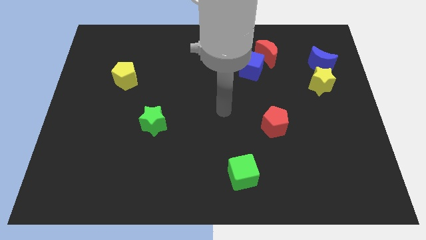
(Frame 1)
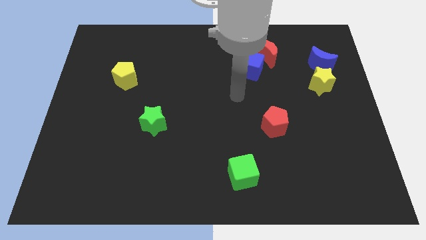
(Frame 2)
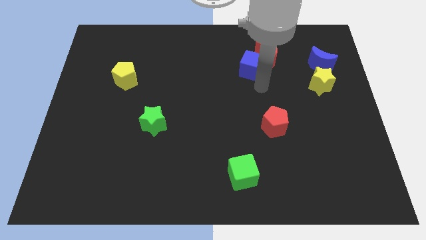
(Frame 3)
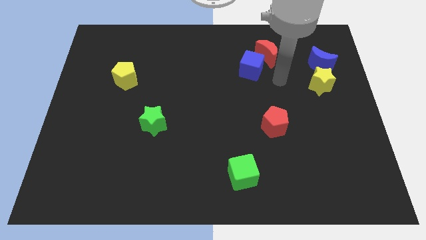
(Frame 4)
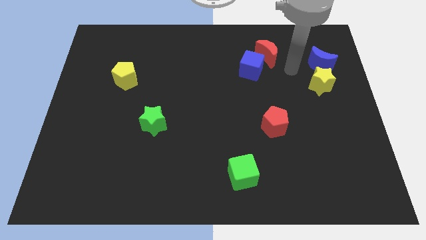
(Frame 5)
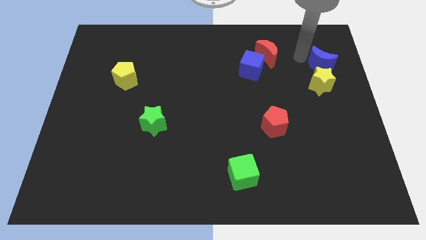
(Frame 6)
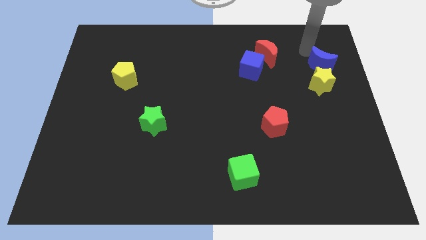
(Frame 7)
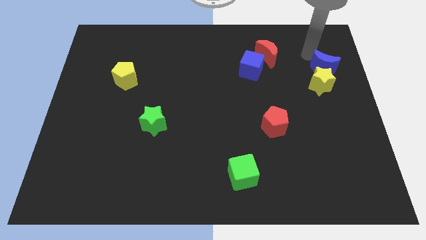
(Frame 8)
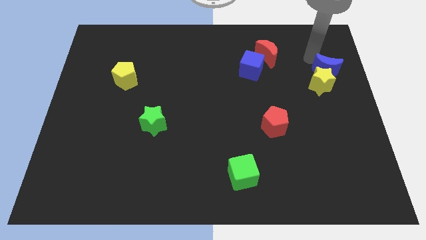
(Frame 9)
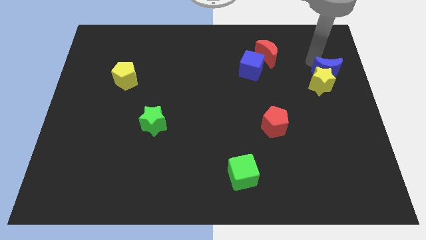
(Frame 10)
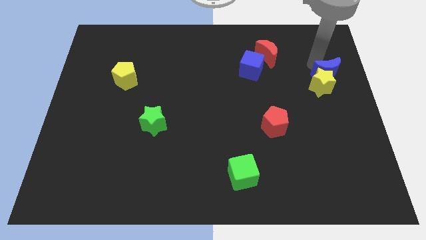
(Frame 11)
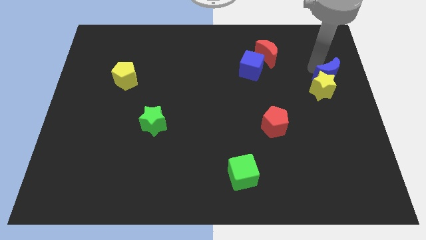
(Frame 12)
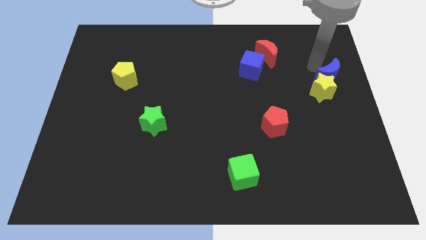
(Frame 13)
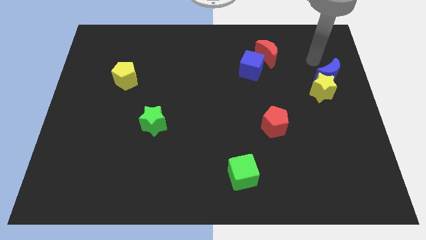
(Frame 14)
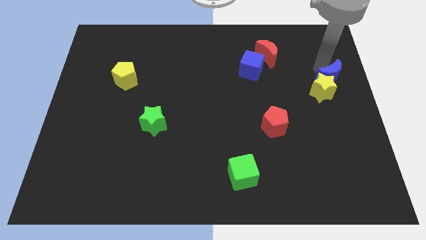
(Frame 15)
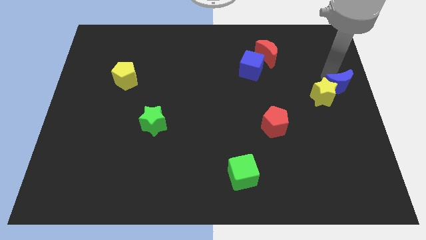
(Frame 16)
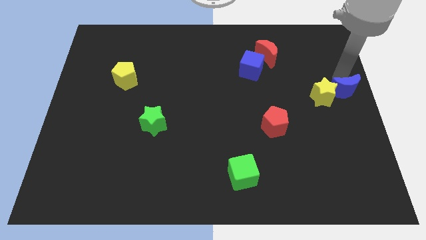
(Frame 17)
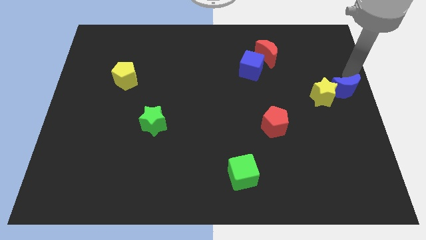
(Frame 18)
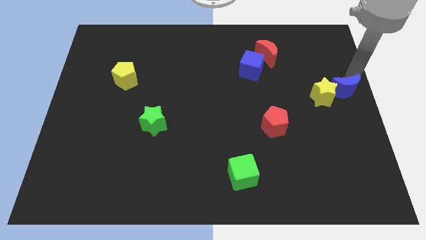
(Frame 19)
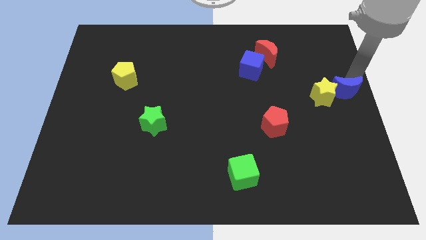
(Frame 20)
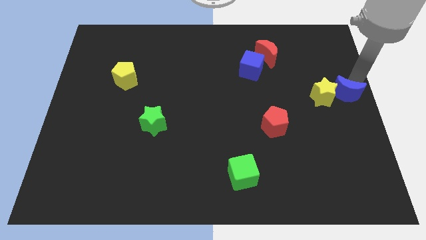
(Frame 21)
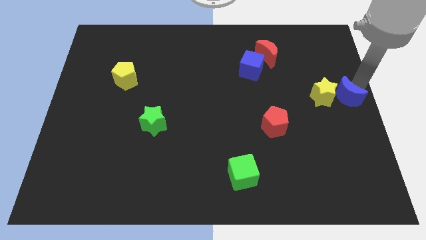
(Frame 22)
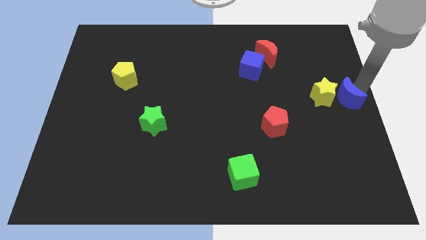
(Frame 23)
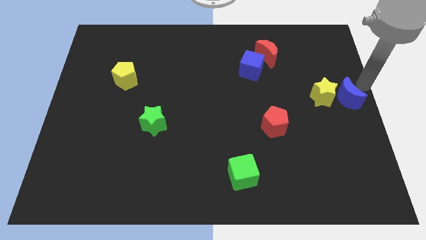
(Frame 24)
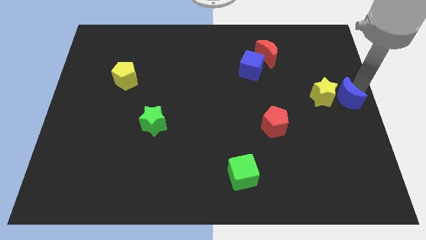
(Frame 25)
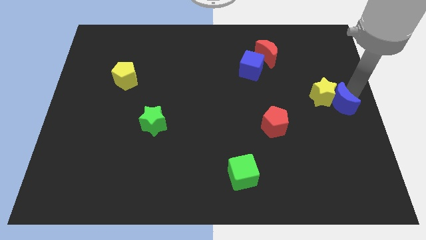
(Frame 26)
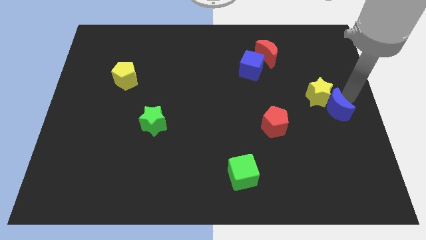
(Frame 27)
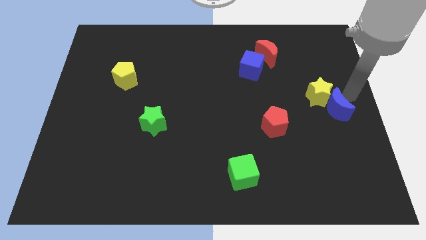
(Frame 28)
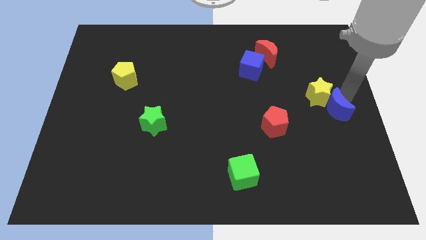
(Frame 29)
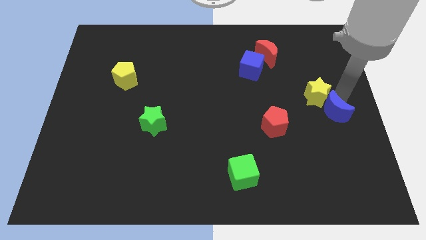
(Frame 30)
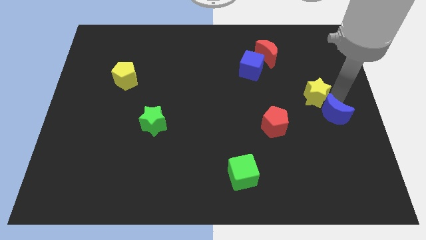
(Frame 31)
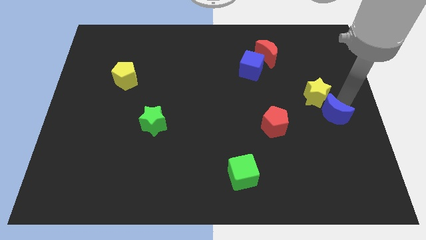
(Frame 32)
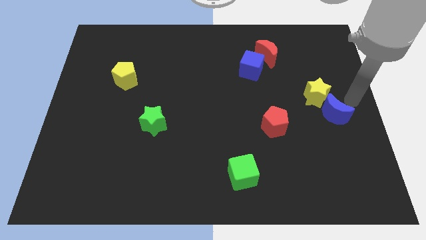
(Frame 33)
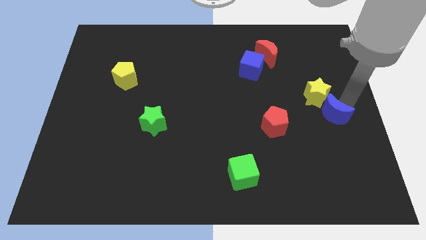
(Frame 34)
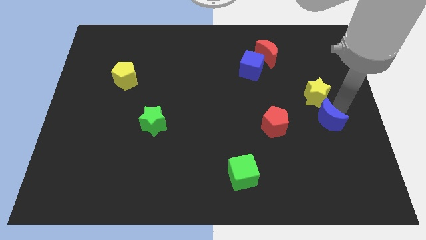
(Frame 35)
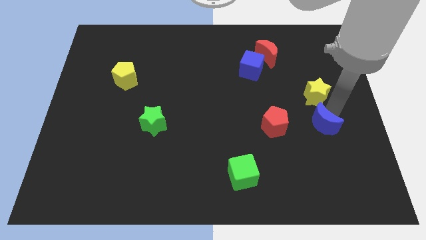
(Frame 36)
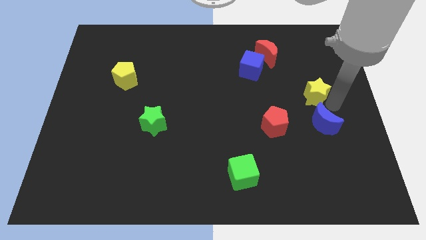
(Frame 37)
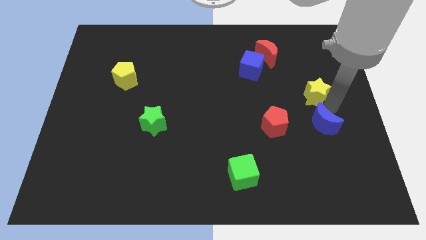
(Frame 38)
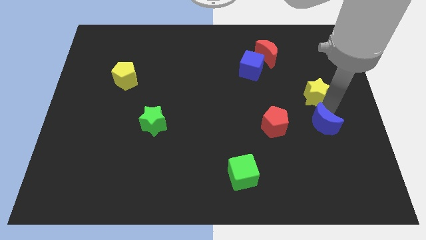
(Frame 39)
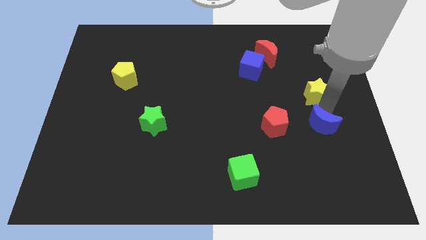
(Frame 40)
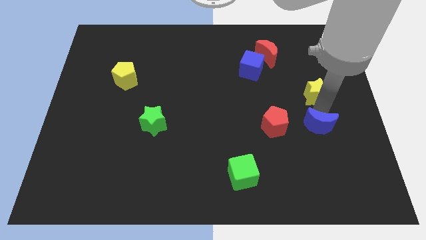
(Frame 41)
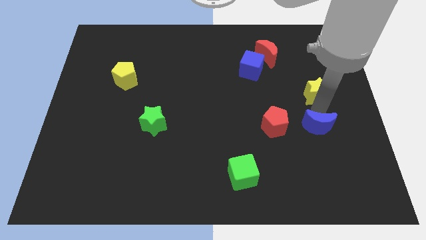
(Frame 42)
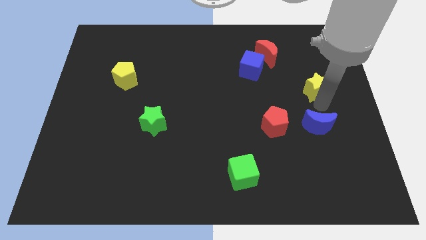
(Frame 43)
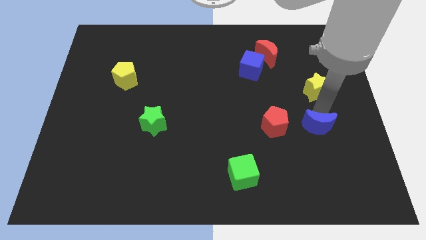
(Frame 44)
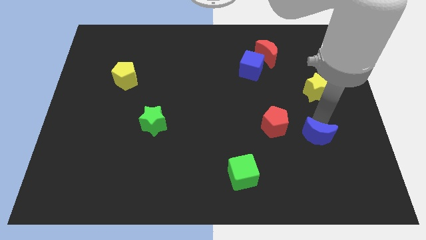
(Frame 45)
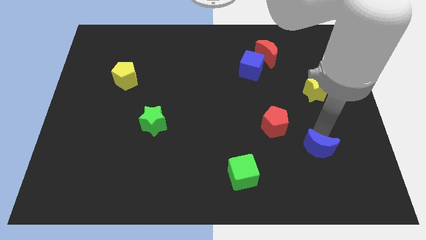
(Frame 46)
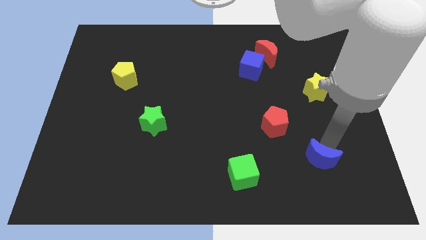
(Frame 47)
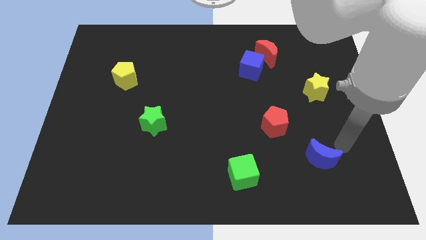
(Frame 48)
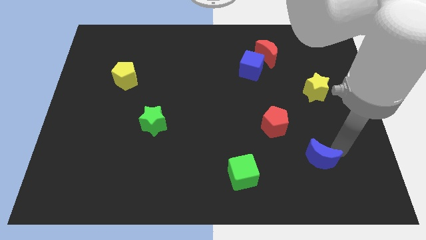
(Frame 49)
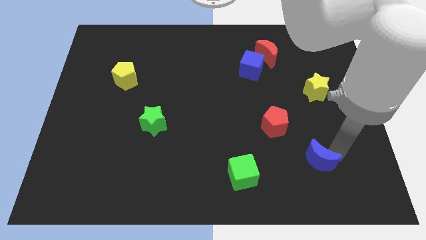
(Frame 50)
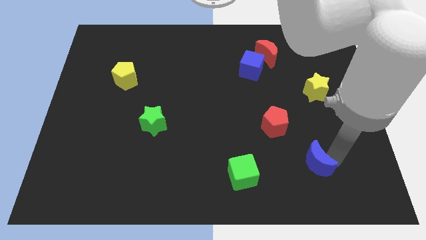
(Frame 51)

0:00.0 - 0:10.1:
put the blue moon right of the green cube

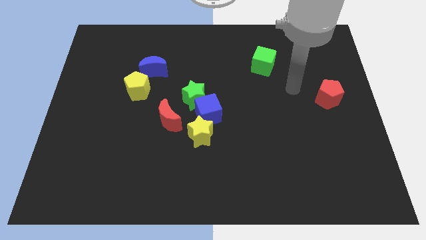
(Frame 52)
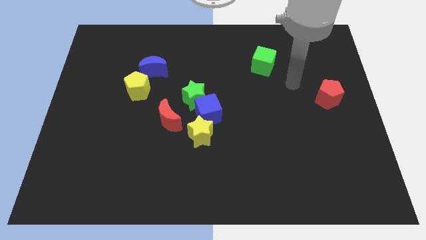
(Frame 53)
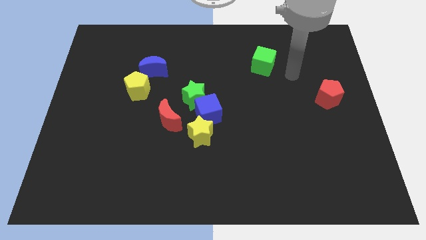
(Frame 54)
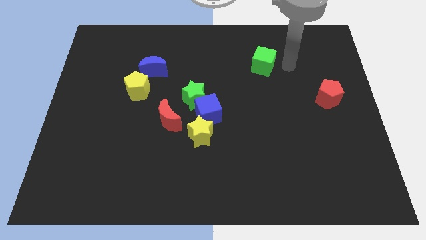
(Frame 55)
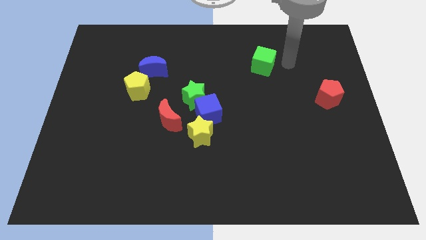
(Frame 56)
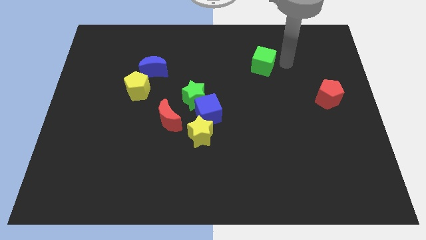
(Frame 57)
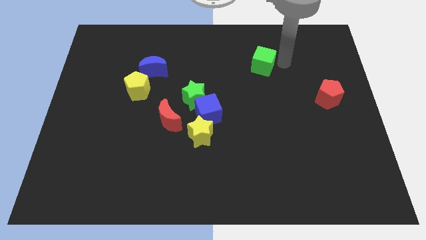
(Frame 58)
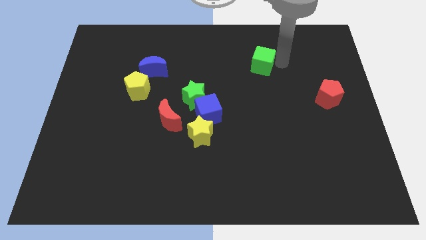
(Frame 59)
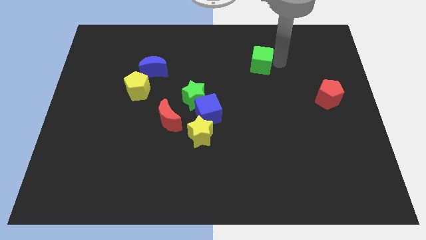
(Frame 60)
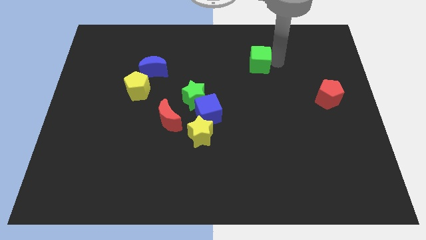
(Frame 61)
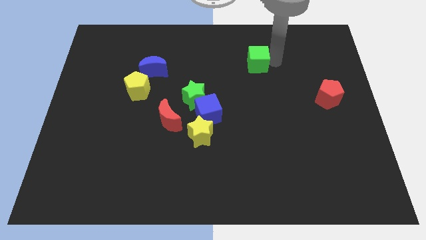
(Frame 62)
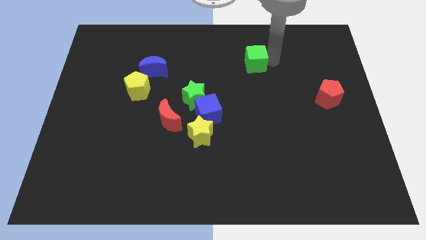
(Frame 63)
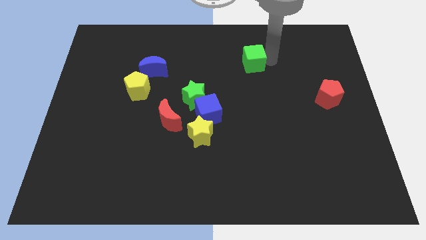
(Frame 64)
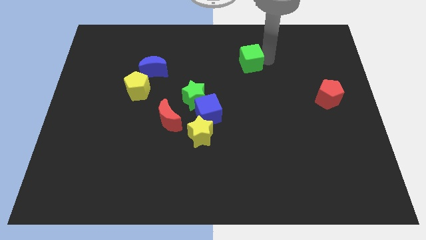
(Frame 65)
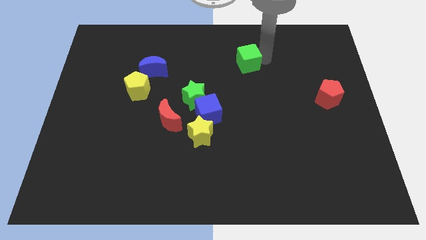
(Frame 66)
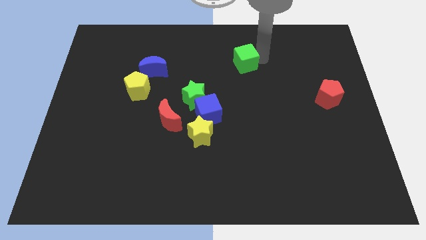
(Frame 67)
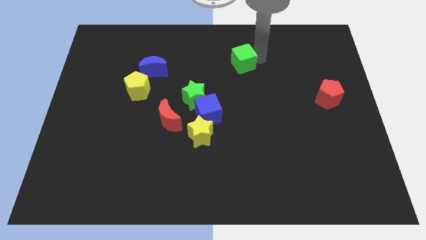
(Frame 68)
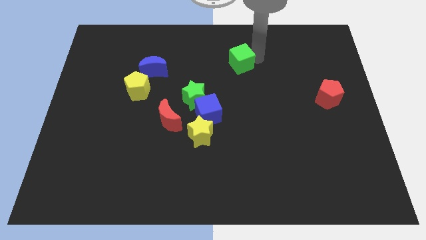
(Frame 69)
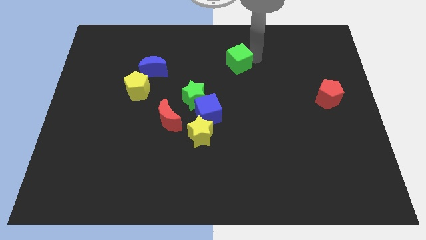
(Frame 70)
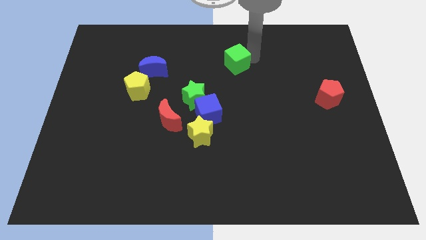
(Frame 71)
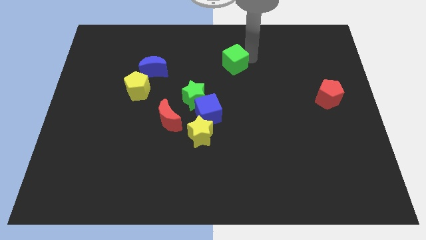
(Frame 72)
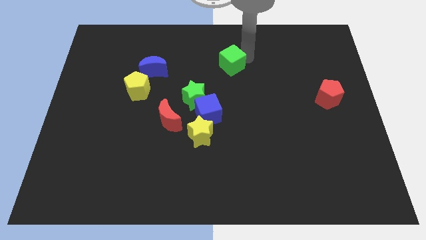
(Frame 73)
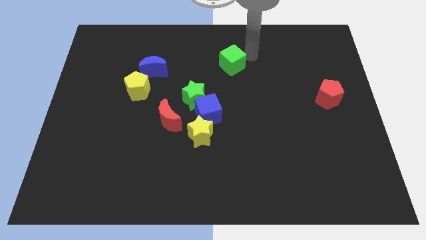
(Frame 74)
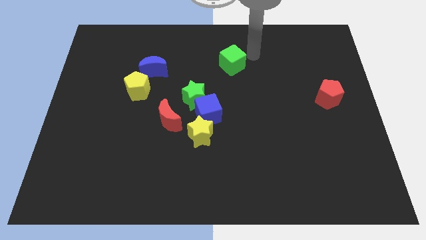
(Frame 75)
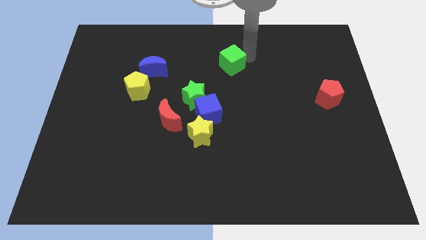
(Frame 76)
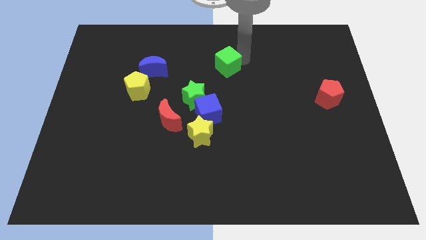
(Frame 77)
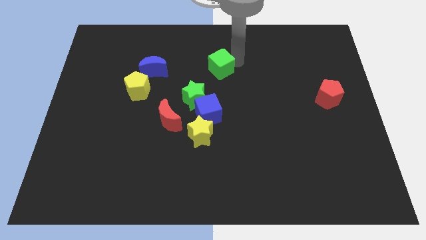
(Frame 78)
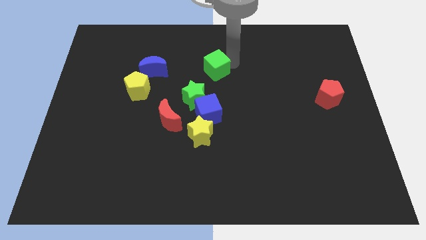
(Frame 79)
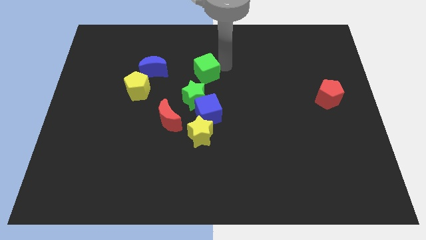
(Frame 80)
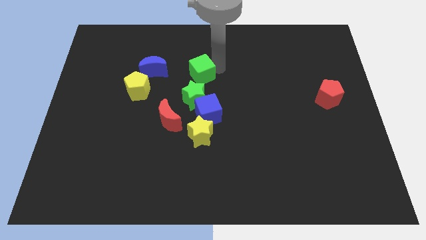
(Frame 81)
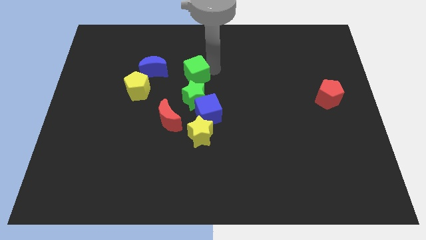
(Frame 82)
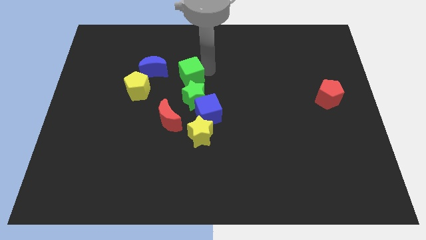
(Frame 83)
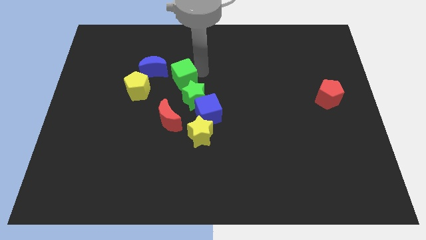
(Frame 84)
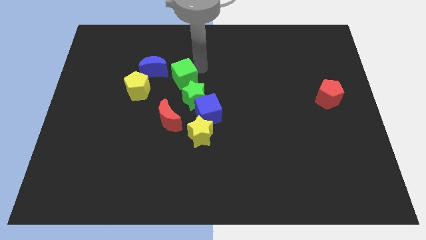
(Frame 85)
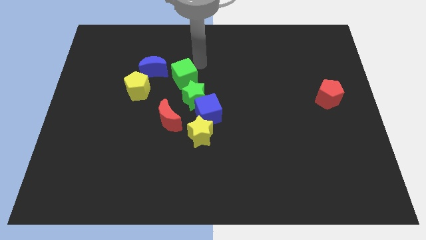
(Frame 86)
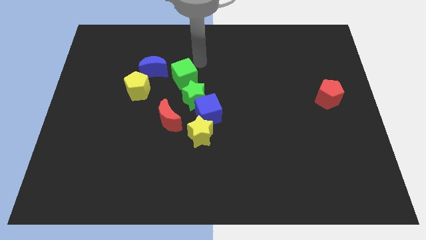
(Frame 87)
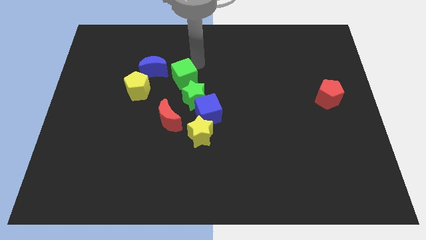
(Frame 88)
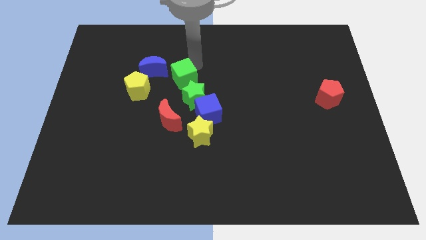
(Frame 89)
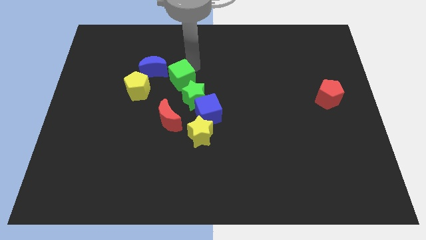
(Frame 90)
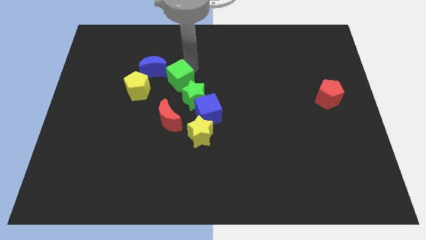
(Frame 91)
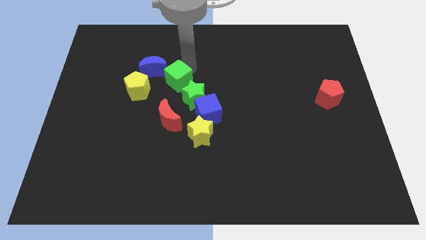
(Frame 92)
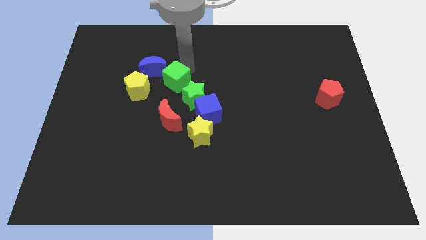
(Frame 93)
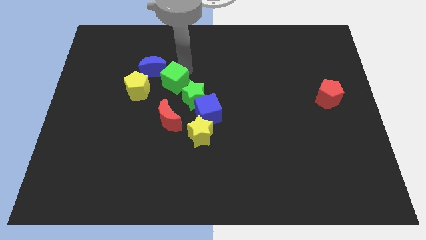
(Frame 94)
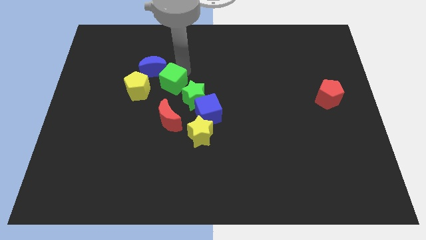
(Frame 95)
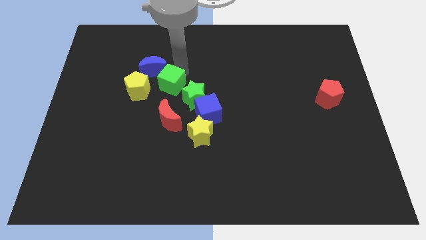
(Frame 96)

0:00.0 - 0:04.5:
move the green cube just left of the green star
